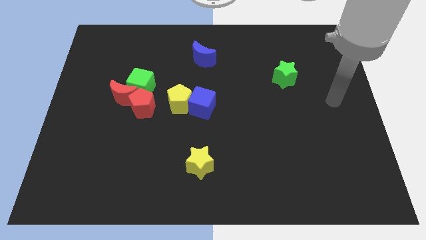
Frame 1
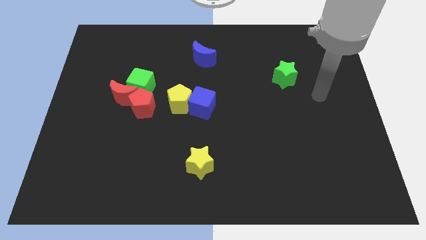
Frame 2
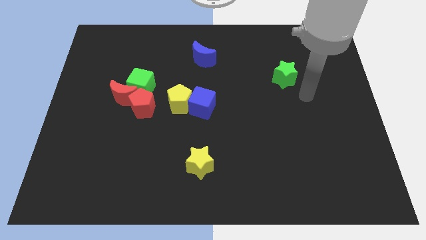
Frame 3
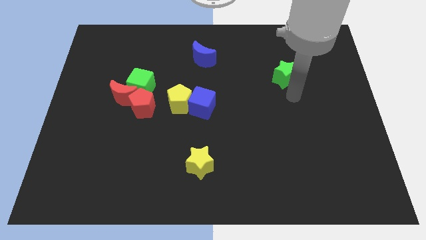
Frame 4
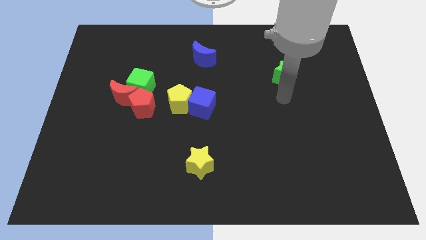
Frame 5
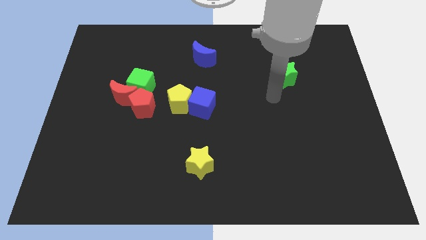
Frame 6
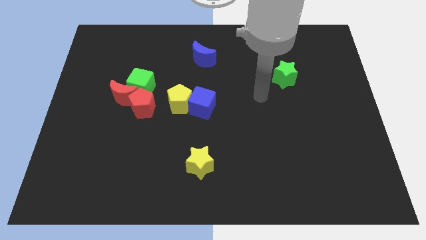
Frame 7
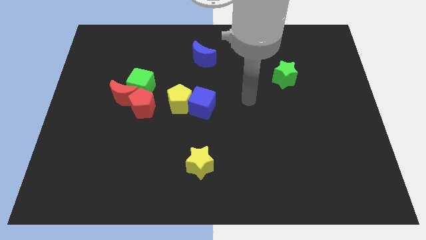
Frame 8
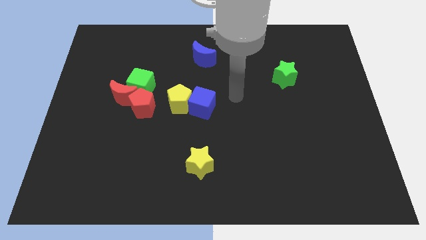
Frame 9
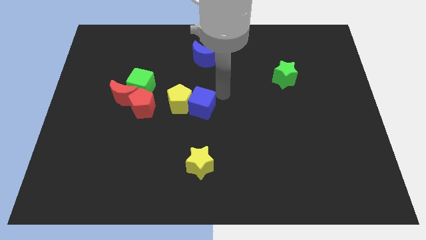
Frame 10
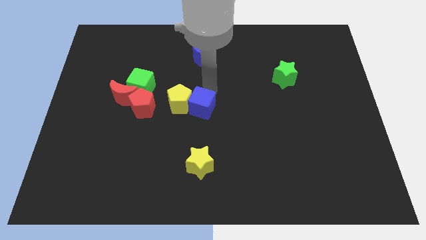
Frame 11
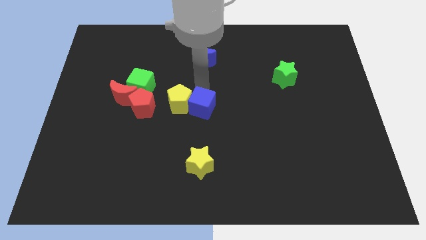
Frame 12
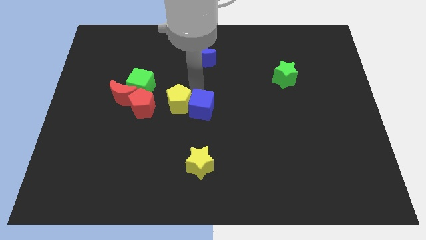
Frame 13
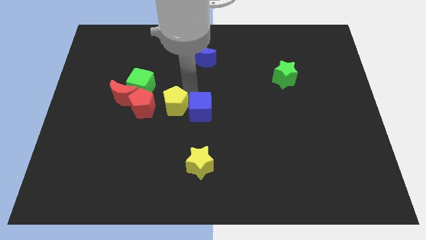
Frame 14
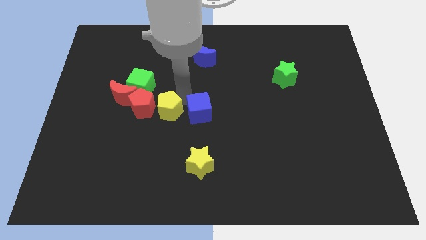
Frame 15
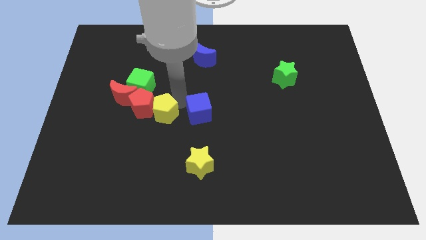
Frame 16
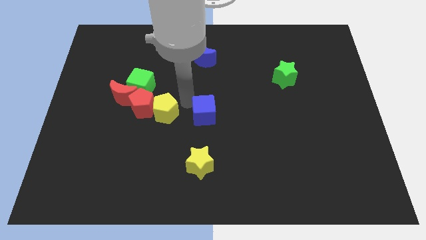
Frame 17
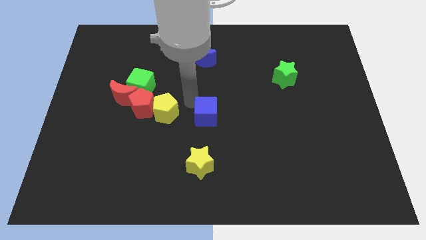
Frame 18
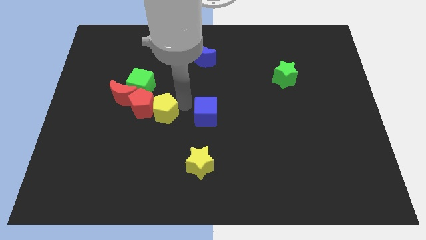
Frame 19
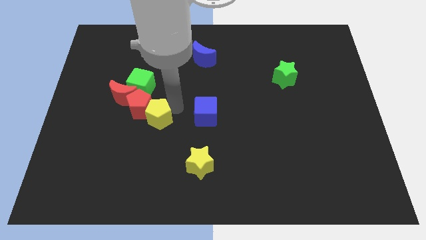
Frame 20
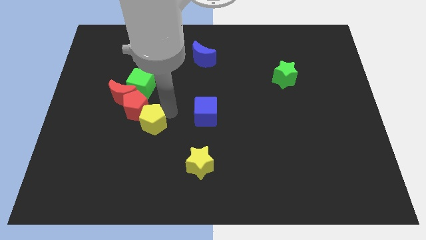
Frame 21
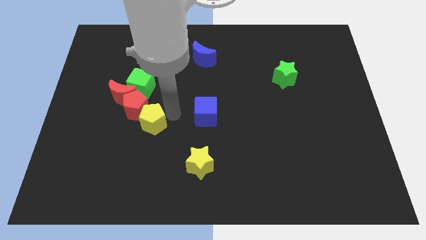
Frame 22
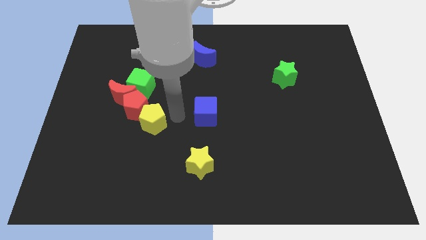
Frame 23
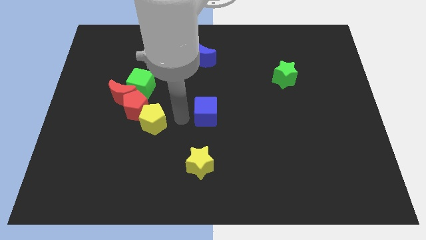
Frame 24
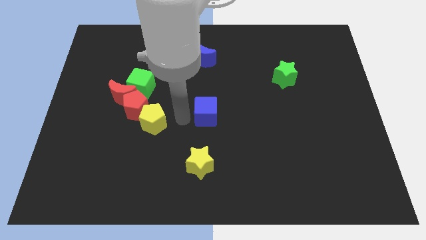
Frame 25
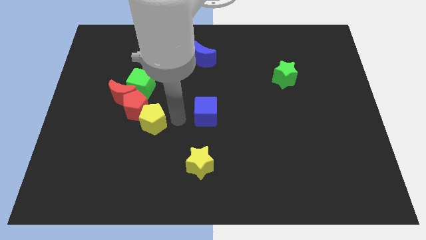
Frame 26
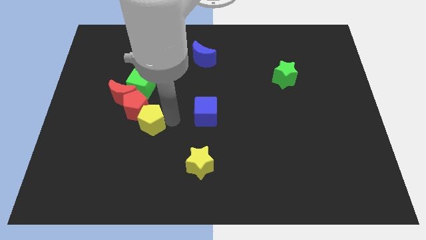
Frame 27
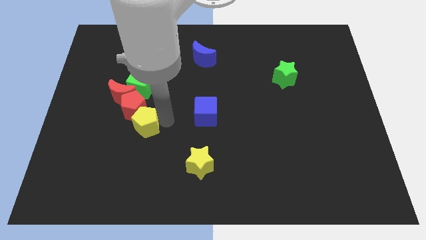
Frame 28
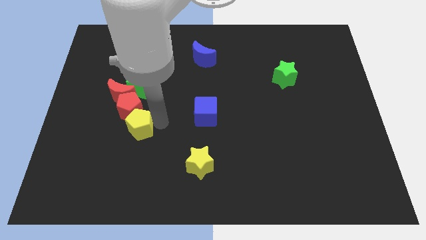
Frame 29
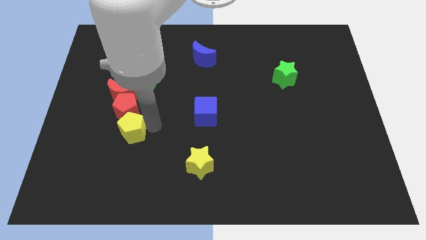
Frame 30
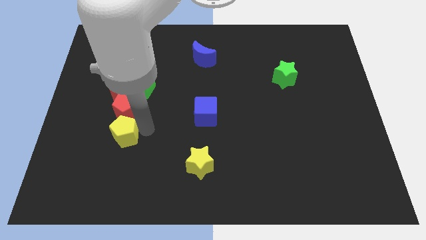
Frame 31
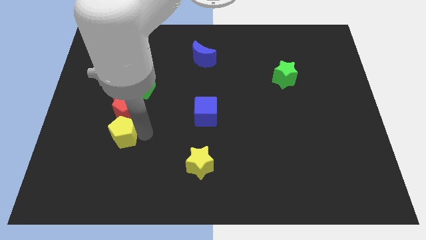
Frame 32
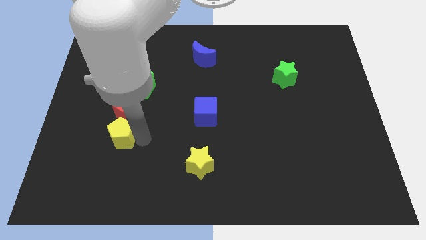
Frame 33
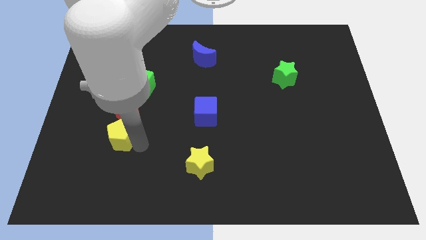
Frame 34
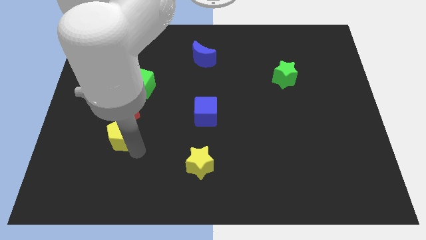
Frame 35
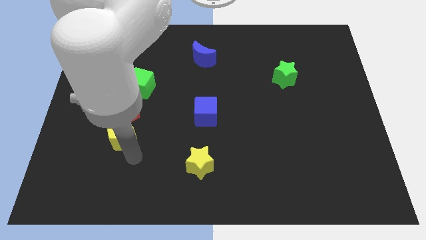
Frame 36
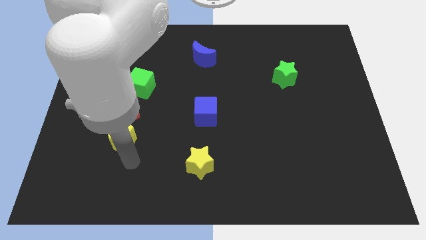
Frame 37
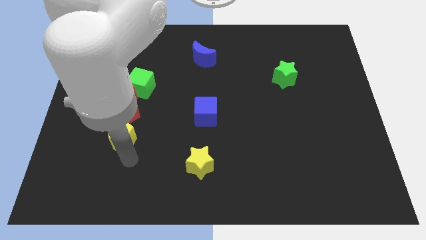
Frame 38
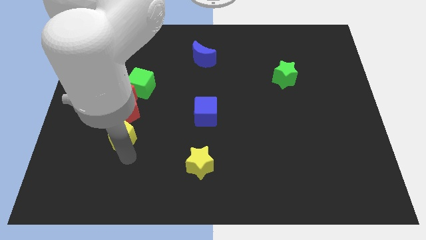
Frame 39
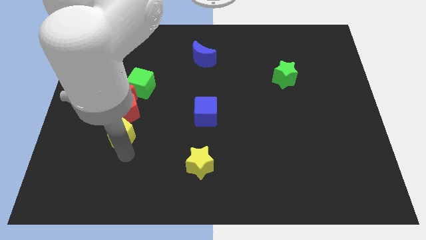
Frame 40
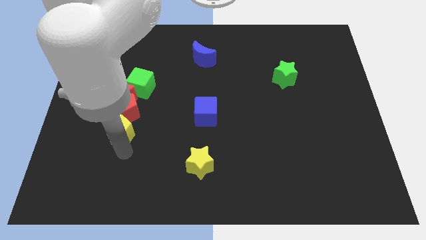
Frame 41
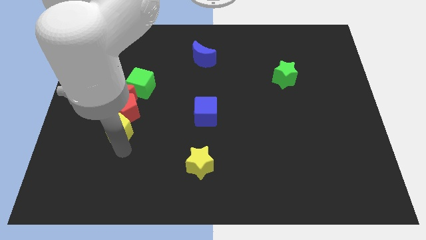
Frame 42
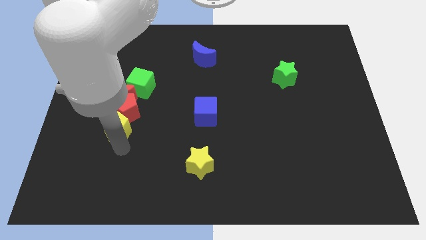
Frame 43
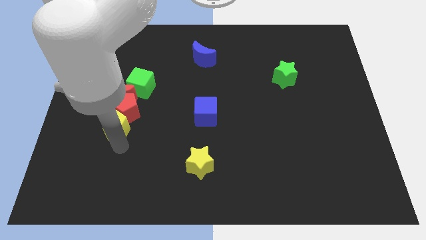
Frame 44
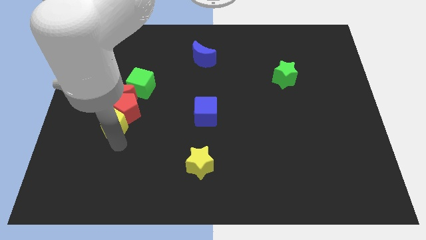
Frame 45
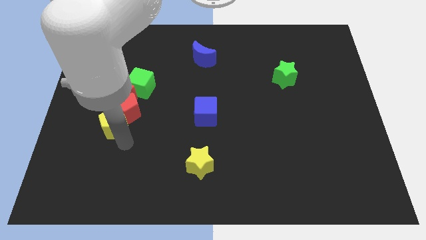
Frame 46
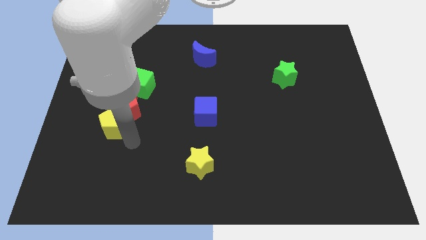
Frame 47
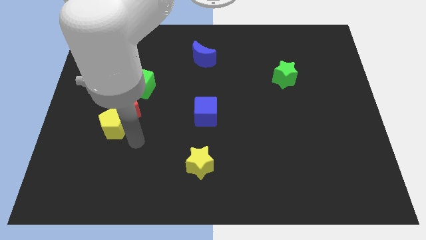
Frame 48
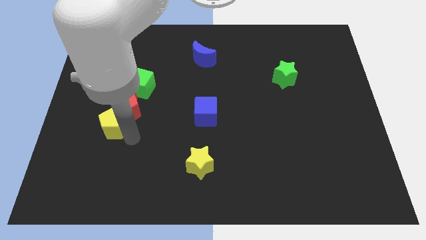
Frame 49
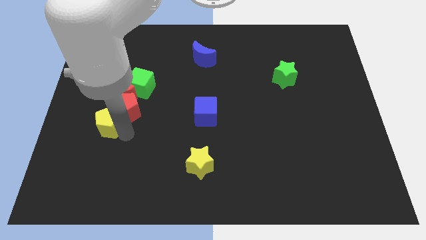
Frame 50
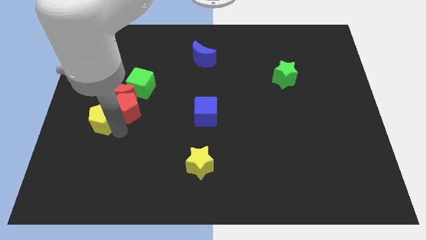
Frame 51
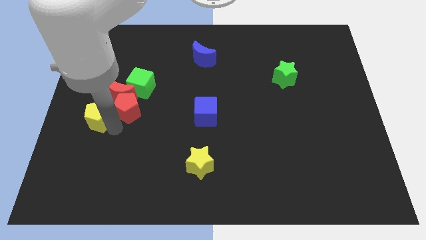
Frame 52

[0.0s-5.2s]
move the yellow pentagon to the left side of the board

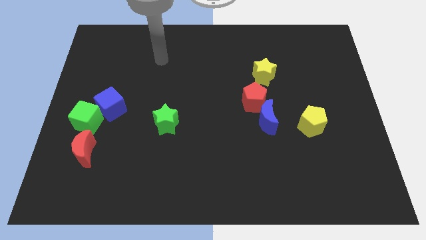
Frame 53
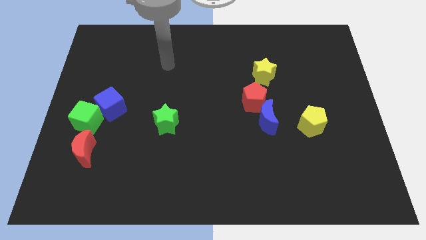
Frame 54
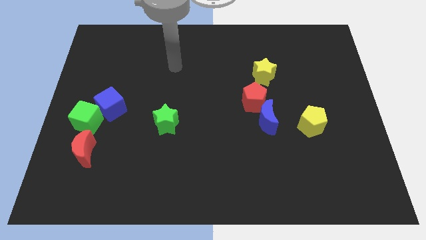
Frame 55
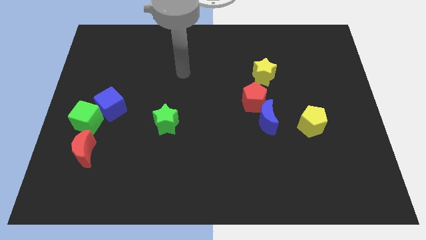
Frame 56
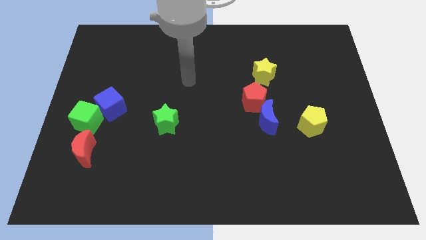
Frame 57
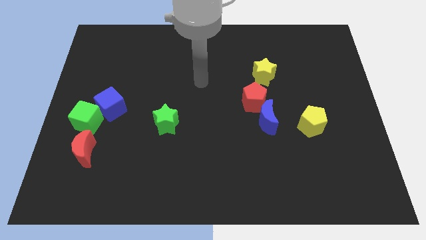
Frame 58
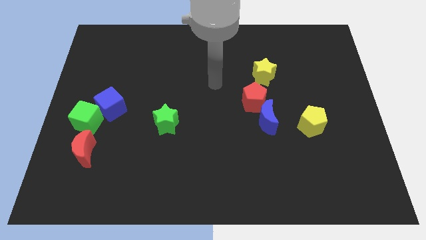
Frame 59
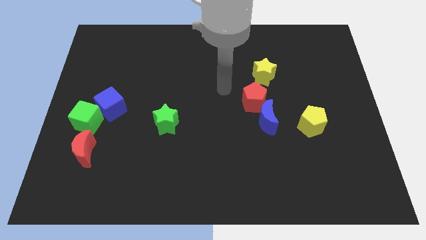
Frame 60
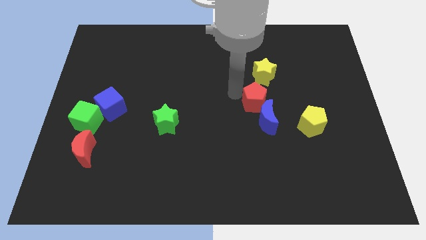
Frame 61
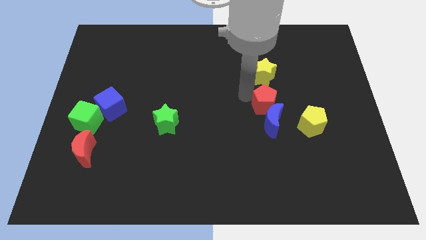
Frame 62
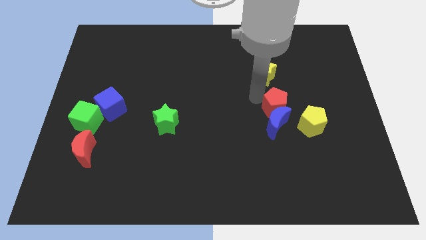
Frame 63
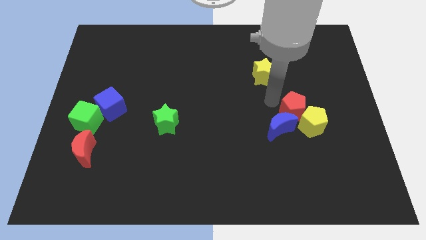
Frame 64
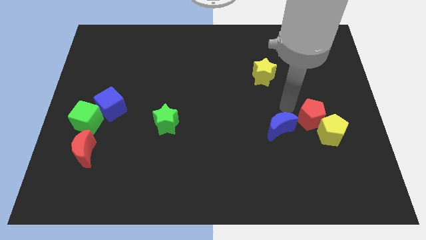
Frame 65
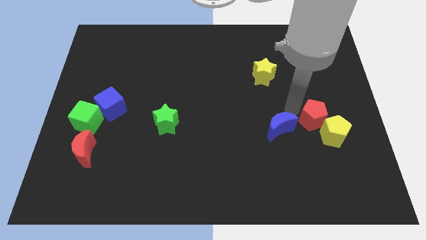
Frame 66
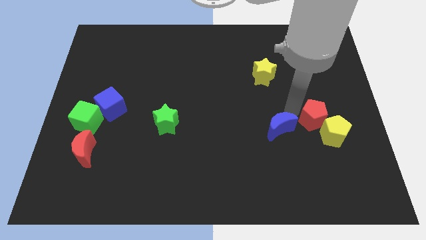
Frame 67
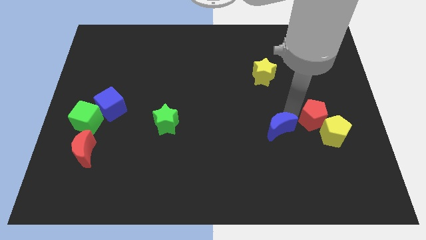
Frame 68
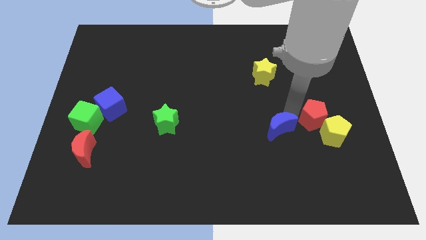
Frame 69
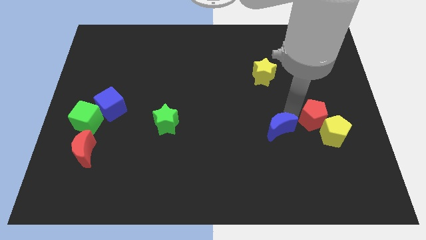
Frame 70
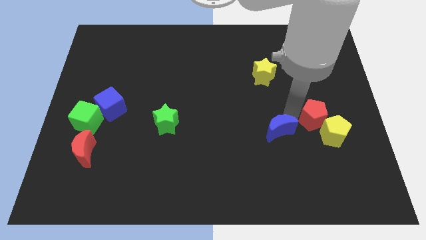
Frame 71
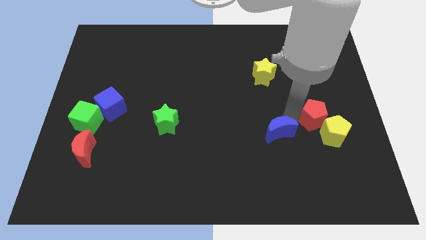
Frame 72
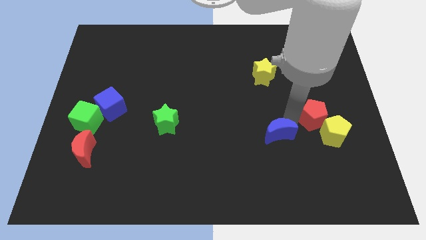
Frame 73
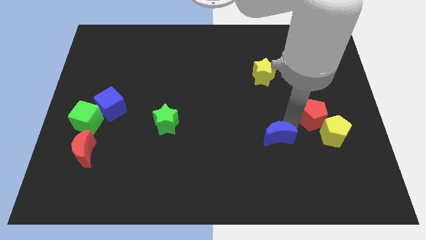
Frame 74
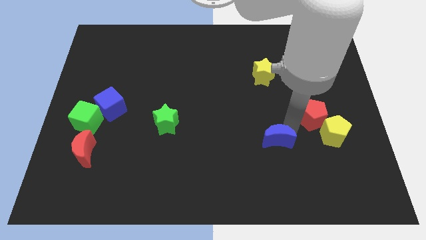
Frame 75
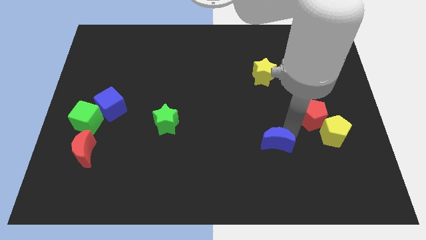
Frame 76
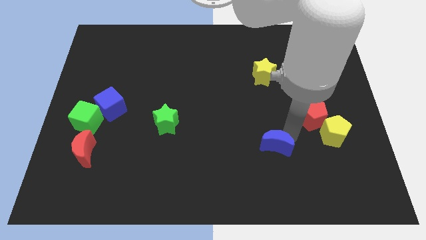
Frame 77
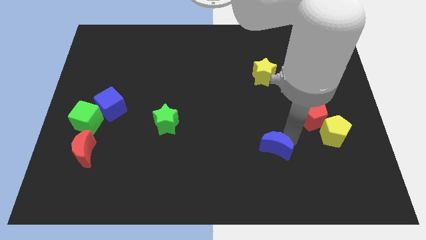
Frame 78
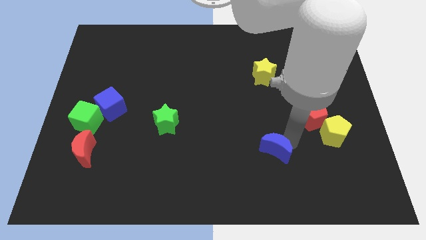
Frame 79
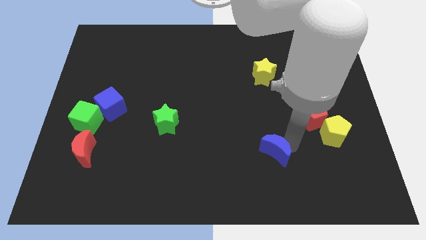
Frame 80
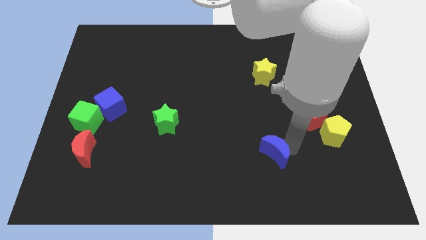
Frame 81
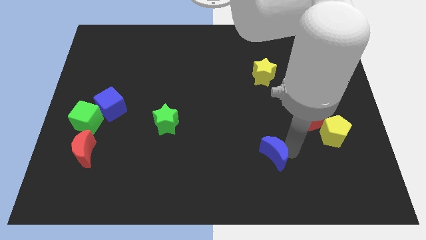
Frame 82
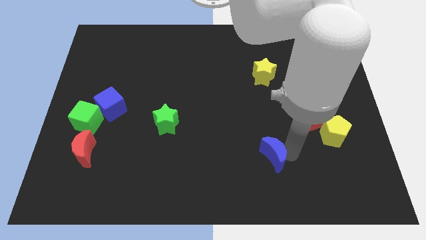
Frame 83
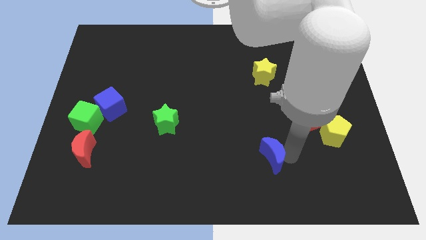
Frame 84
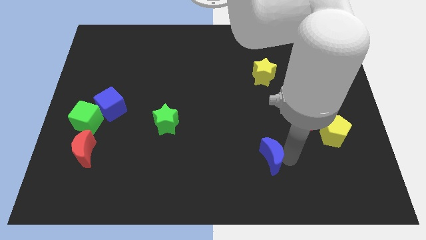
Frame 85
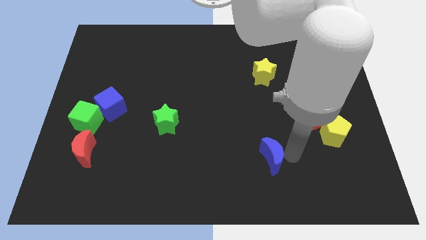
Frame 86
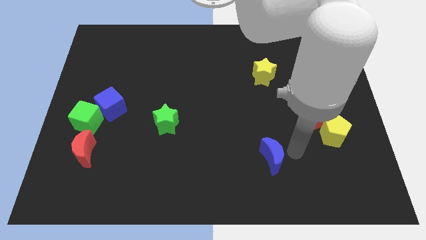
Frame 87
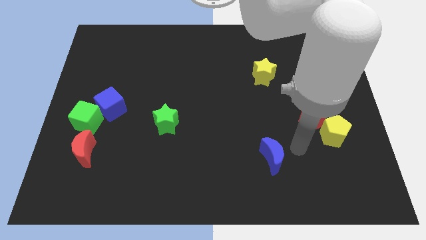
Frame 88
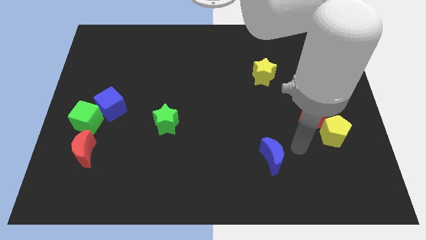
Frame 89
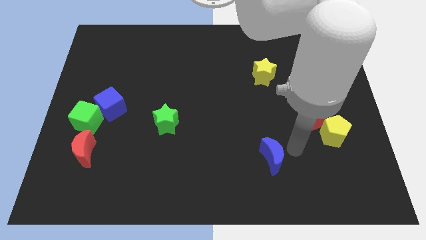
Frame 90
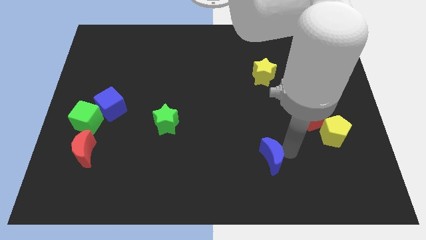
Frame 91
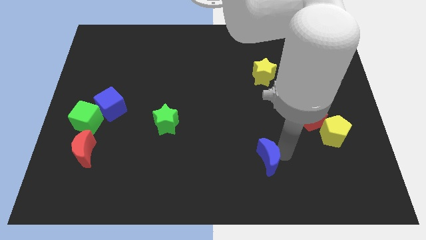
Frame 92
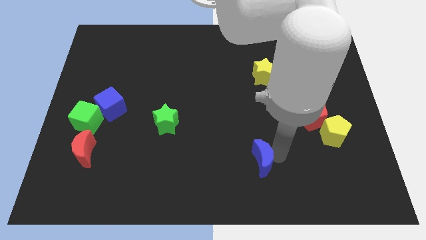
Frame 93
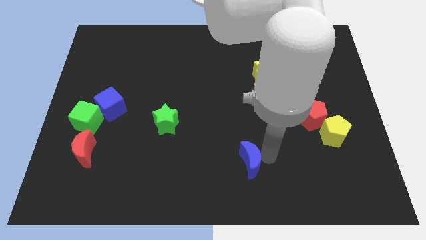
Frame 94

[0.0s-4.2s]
slide the blue moon to the bottom side
